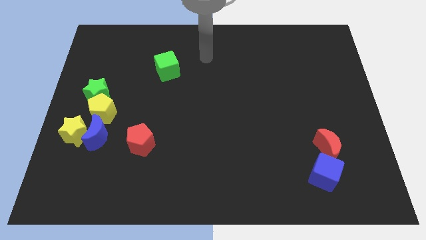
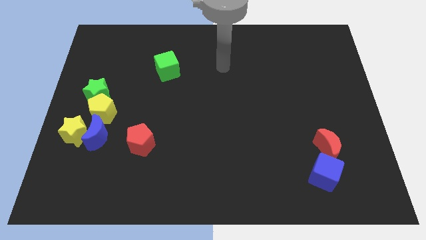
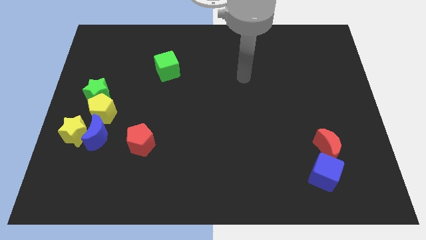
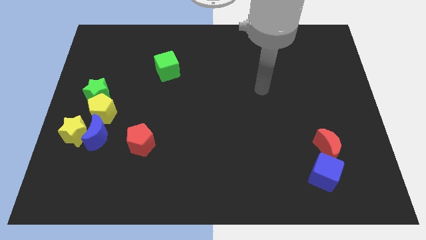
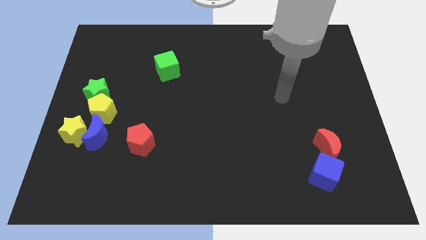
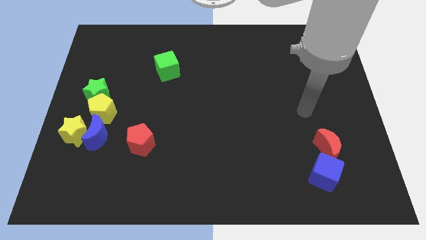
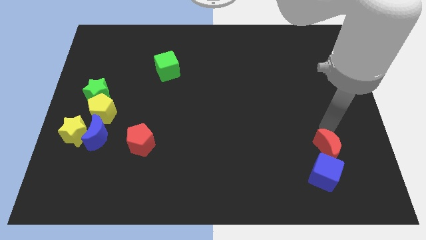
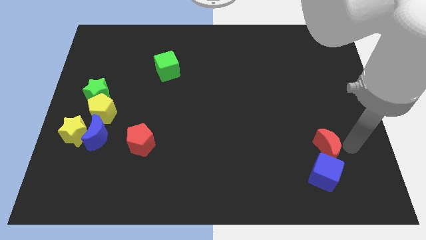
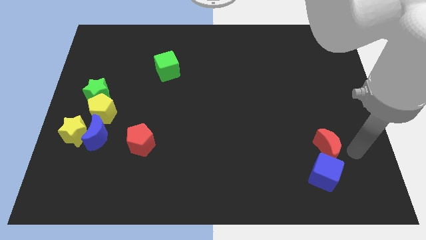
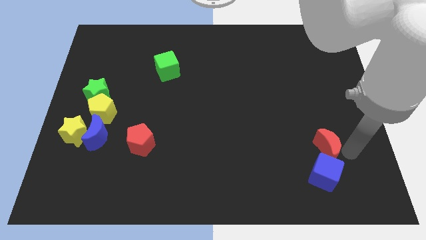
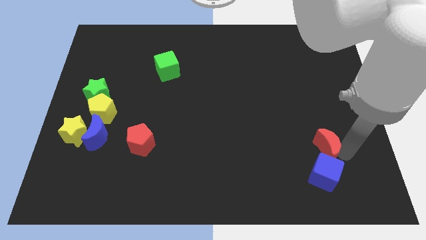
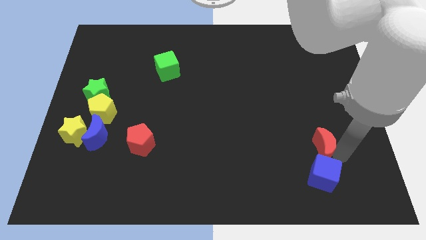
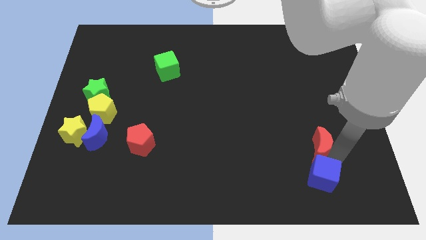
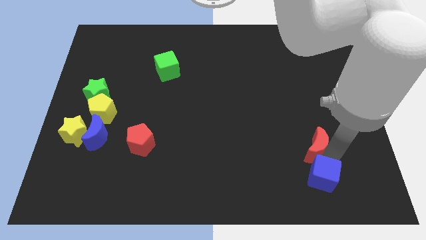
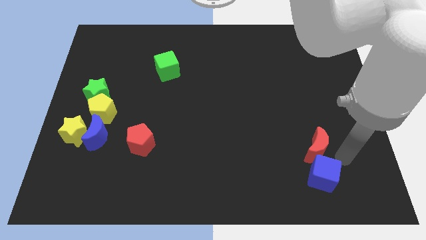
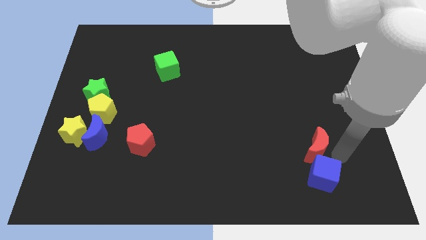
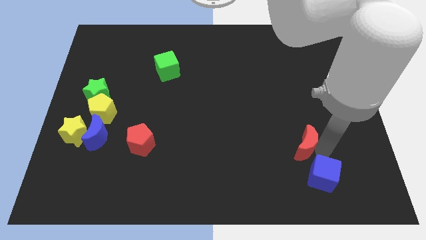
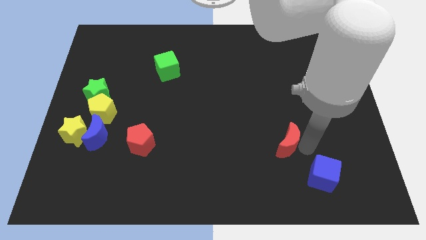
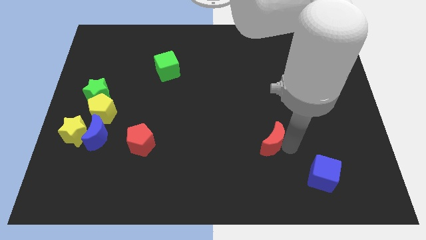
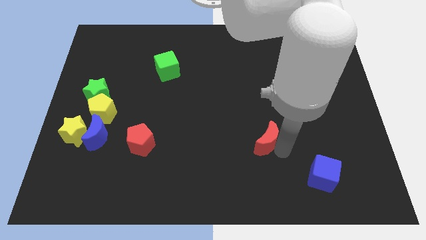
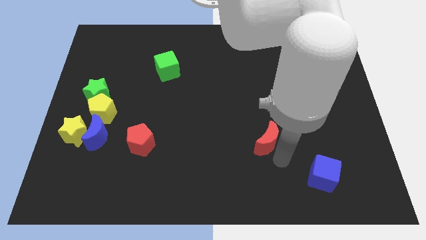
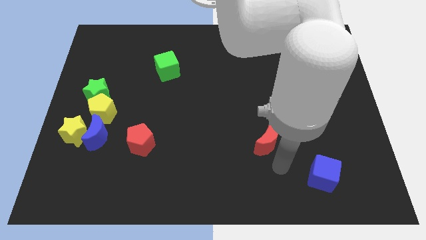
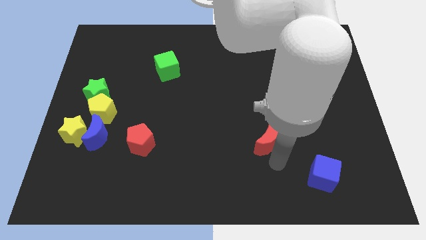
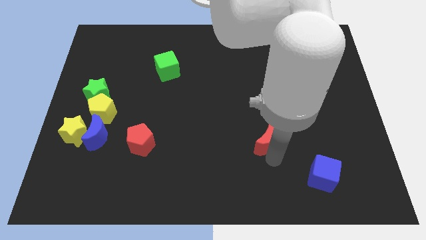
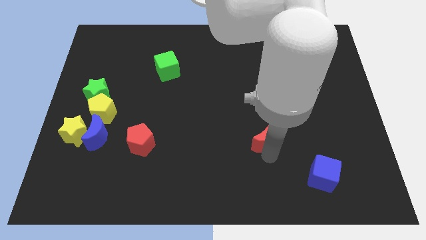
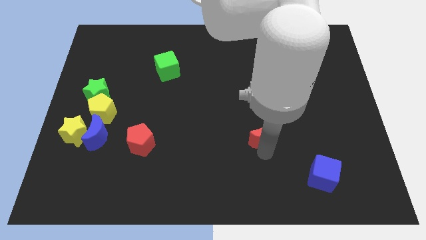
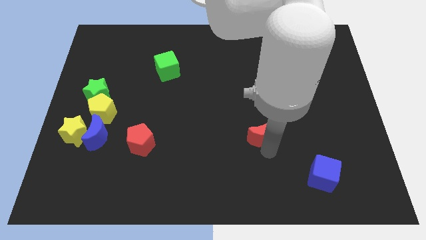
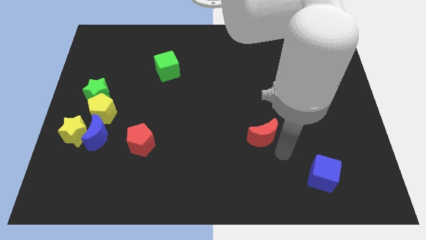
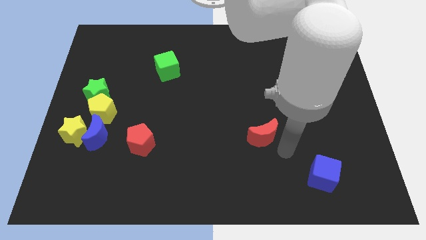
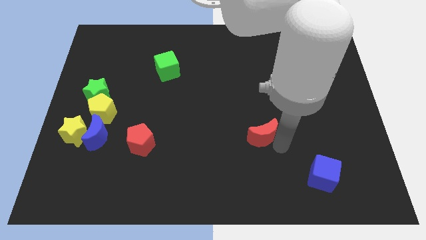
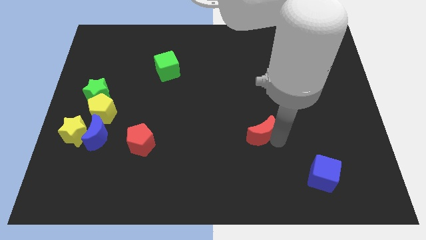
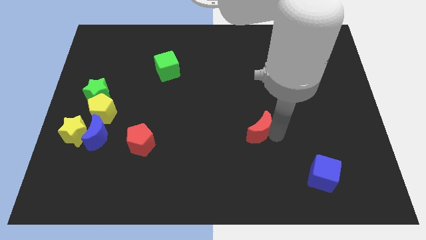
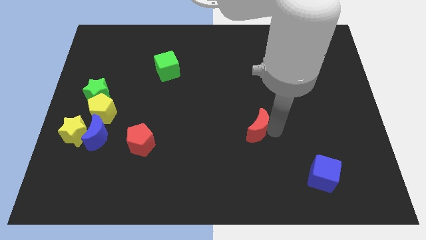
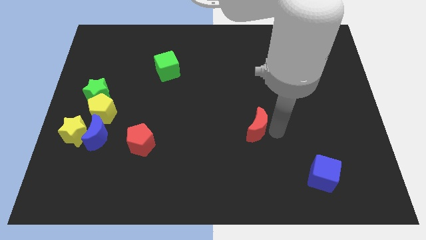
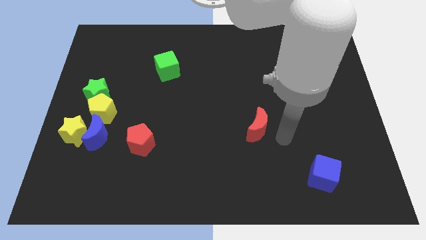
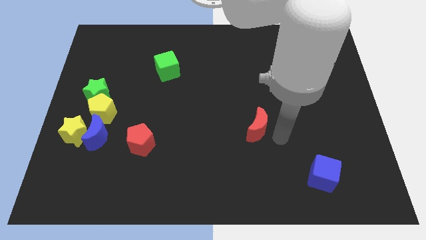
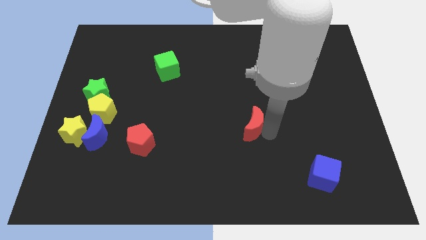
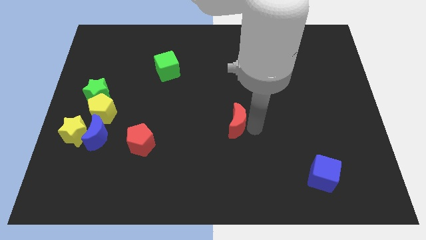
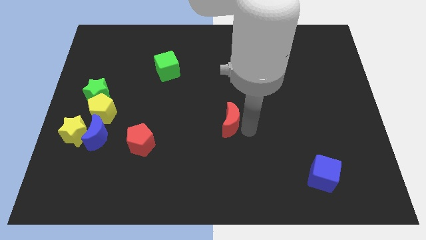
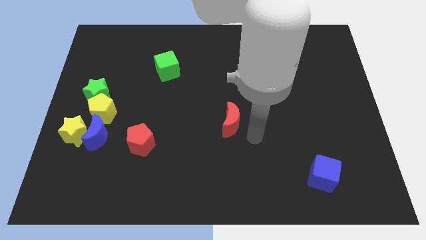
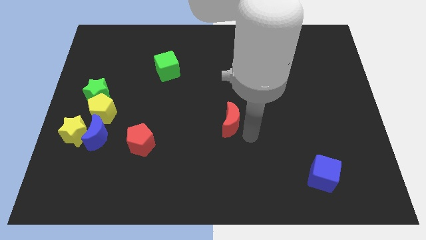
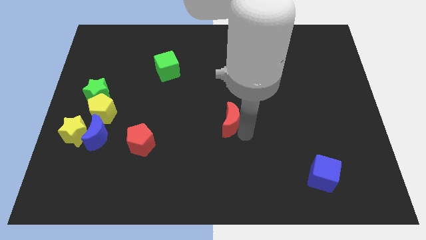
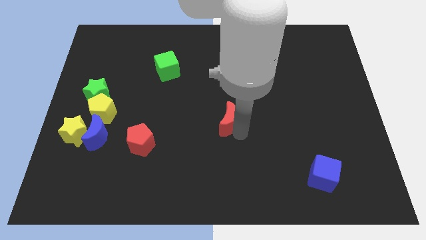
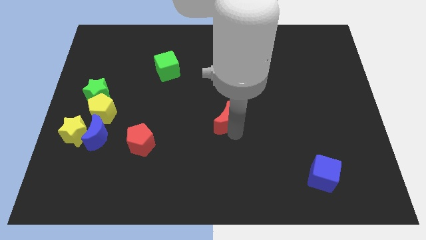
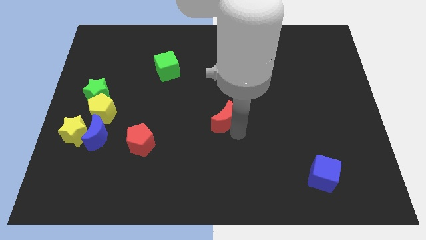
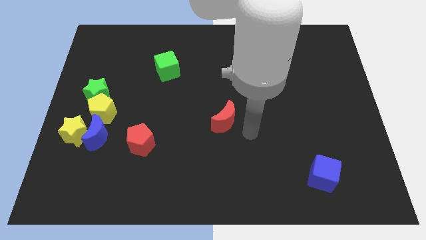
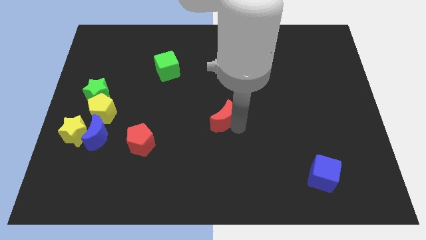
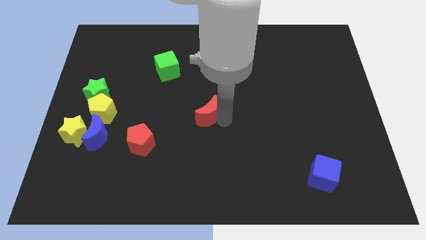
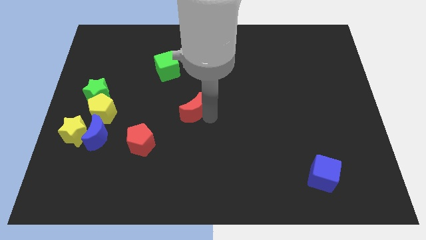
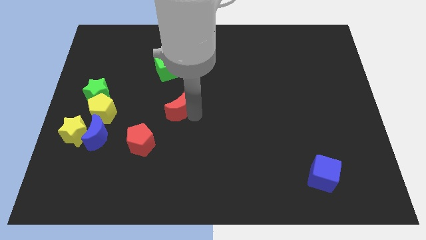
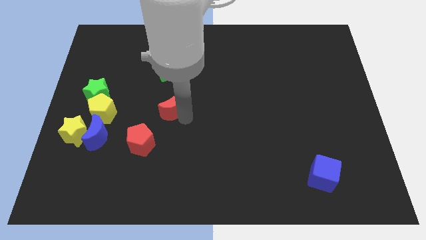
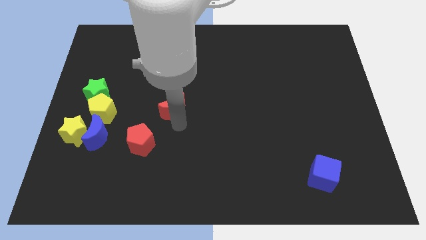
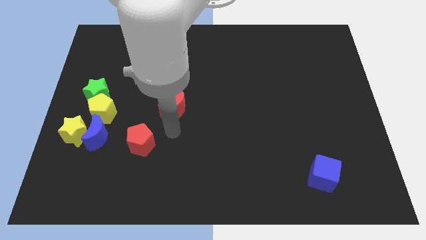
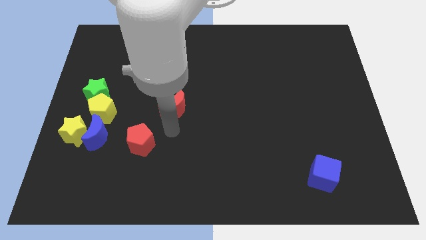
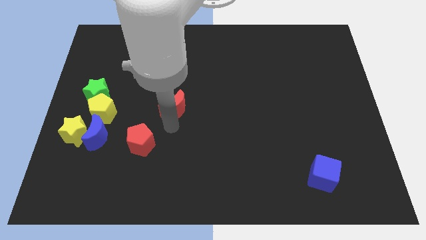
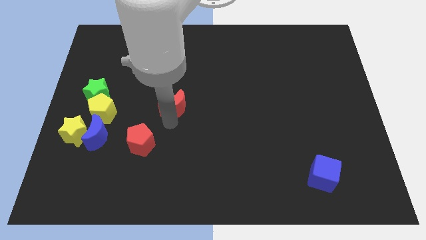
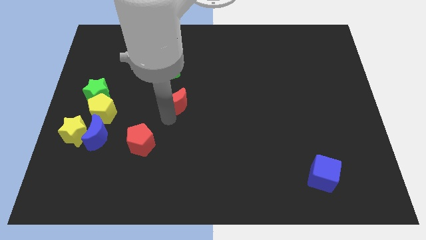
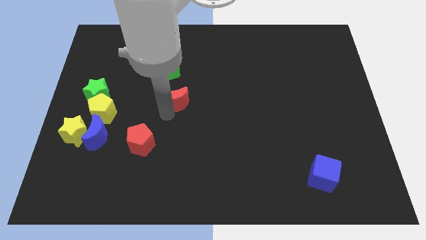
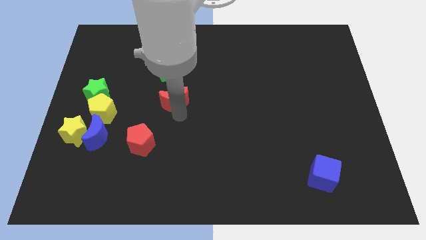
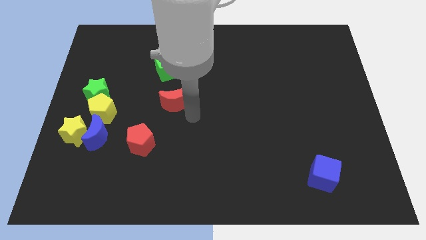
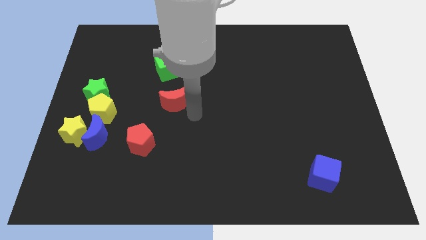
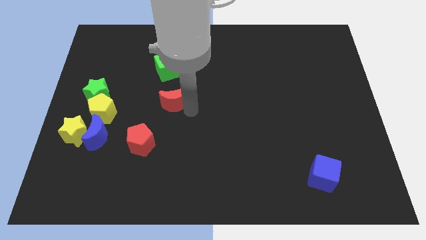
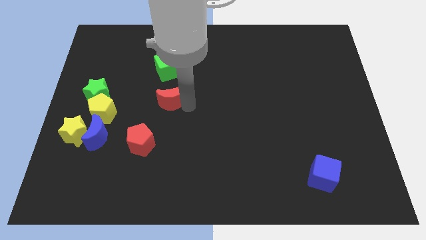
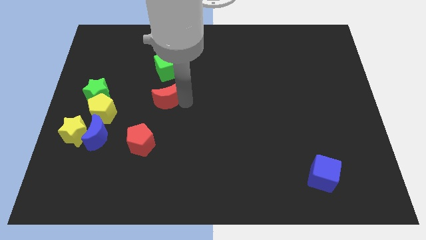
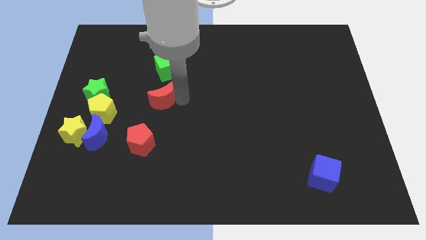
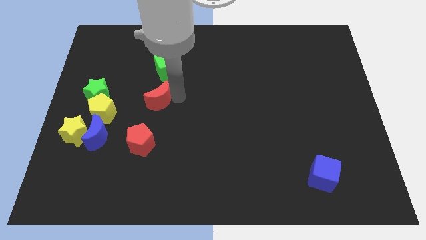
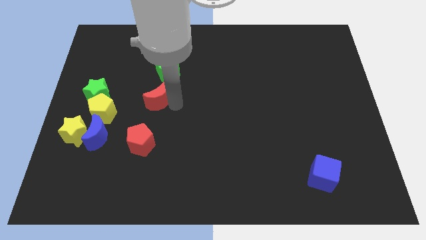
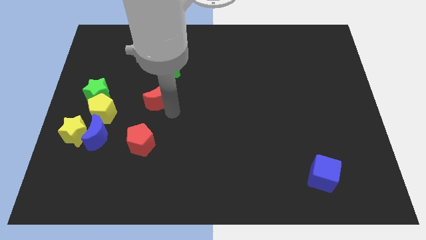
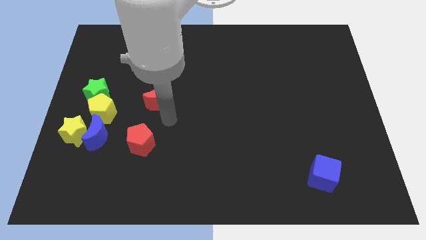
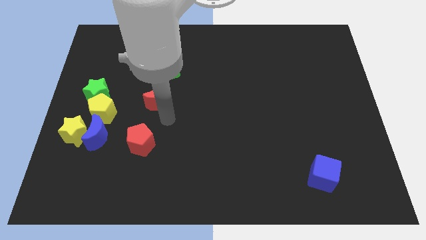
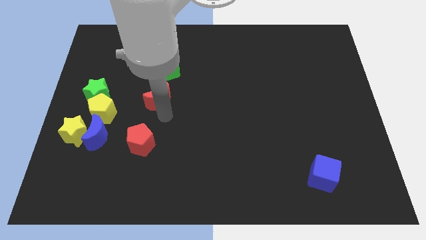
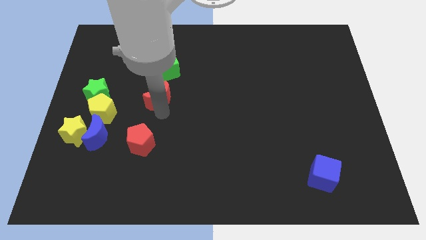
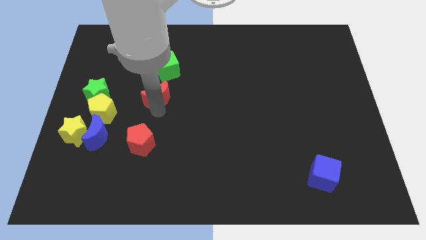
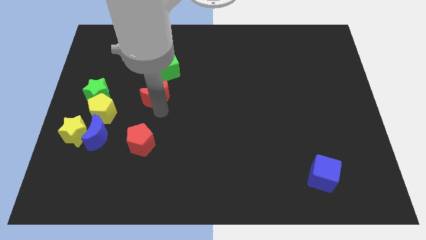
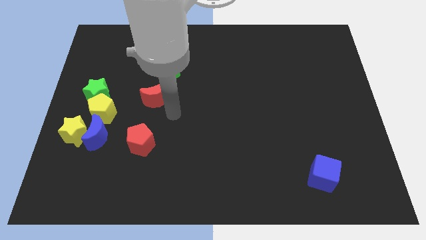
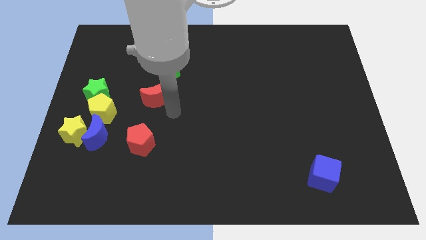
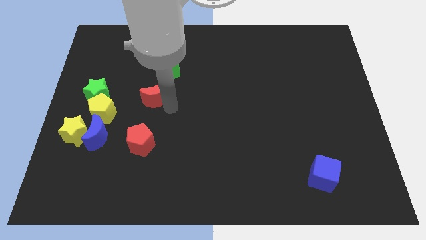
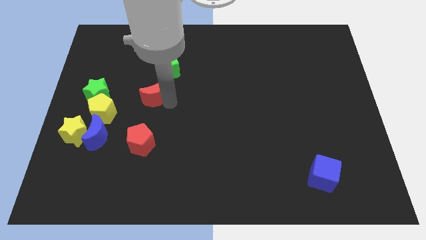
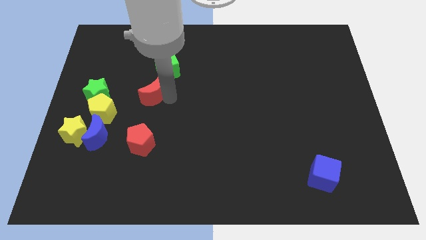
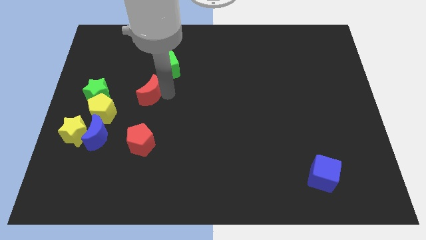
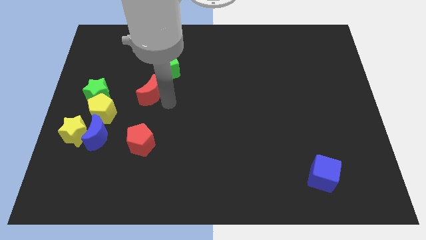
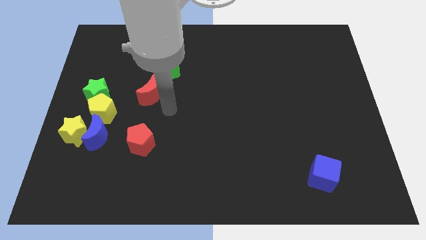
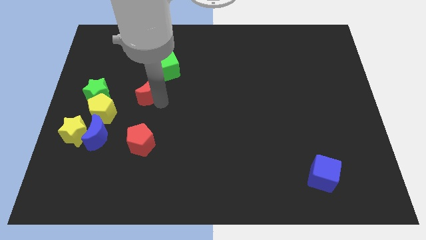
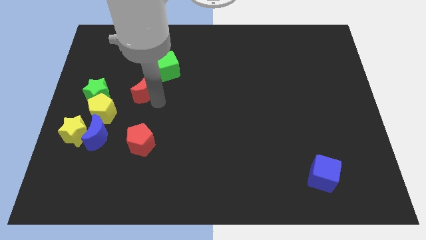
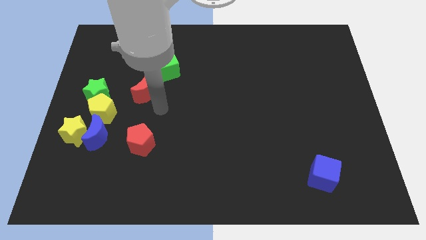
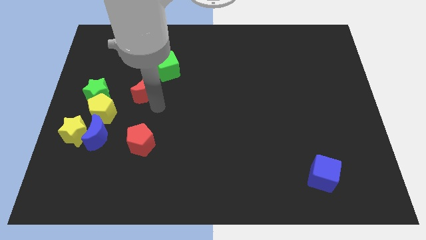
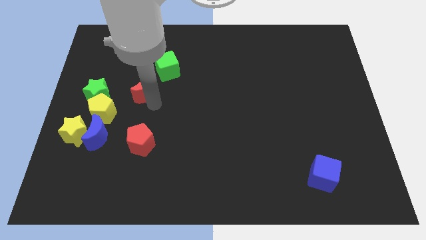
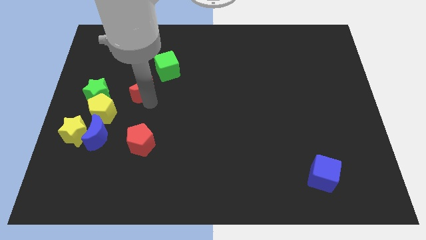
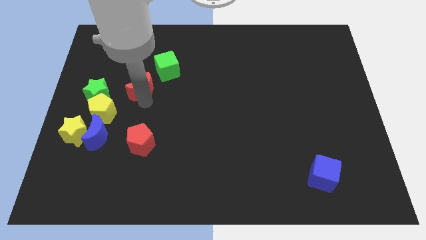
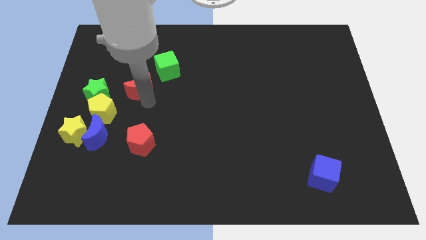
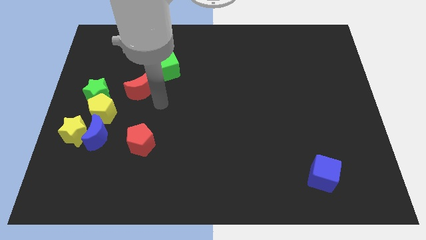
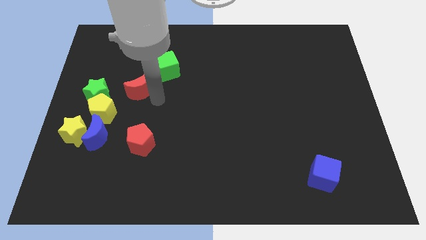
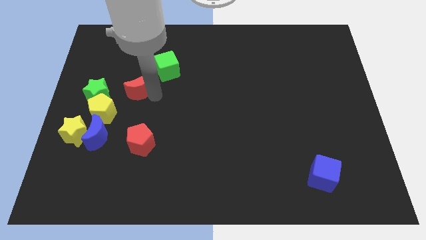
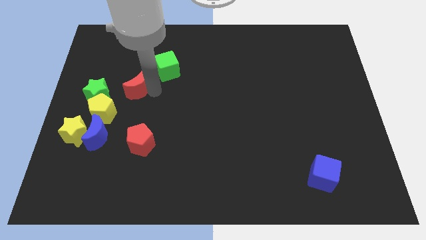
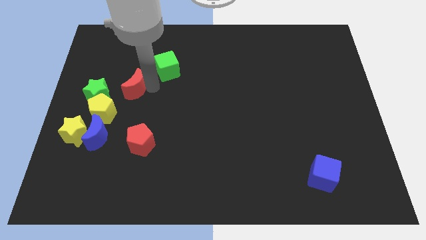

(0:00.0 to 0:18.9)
push the red moon diagonally up and to the right of the green star
